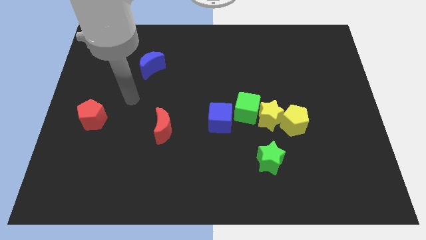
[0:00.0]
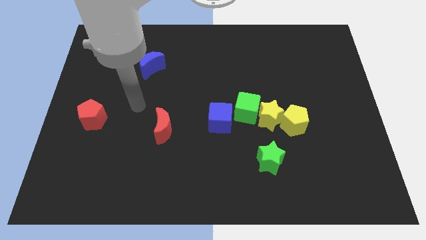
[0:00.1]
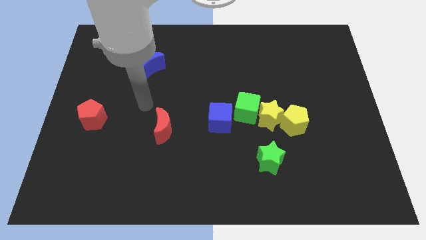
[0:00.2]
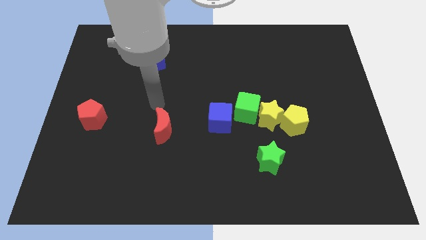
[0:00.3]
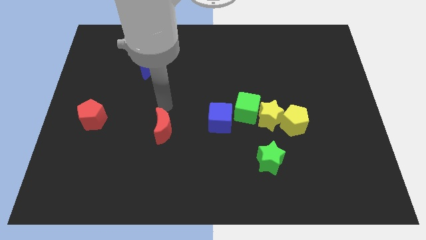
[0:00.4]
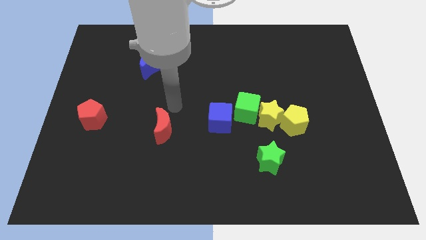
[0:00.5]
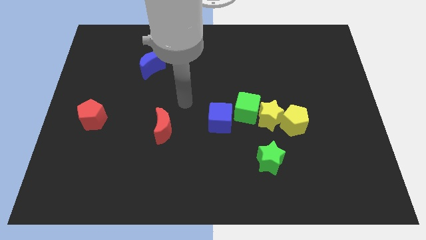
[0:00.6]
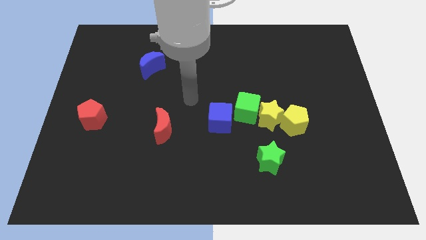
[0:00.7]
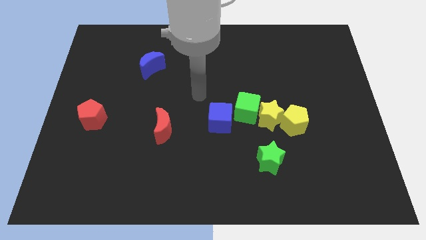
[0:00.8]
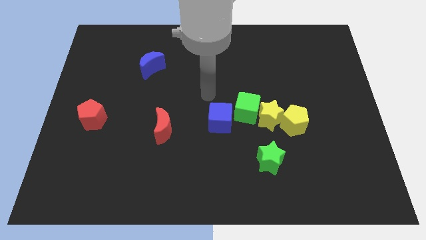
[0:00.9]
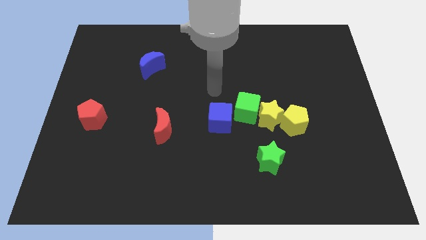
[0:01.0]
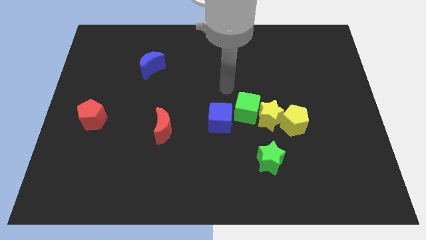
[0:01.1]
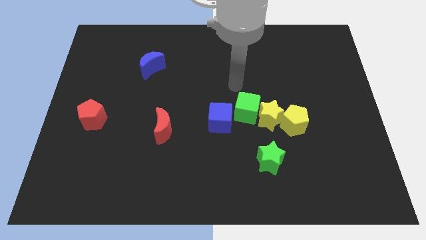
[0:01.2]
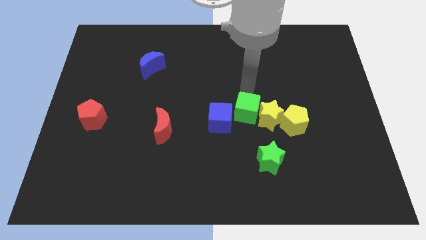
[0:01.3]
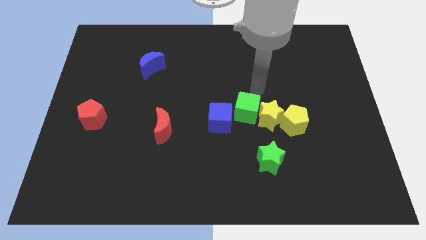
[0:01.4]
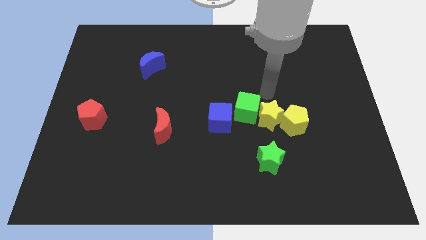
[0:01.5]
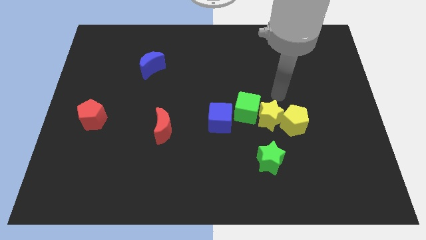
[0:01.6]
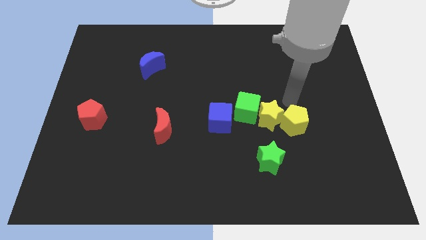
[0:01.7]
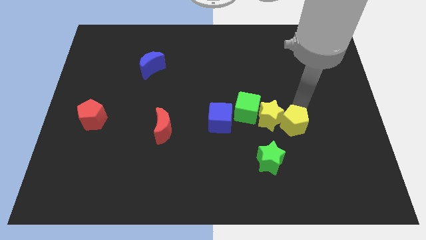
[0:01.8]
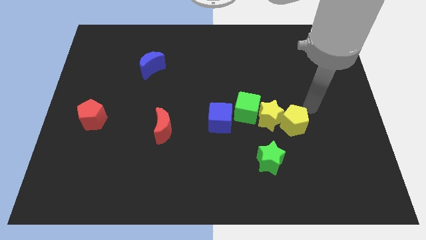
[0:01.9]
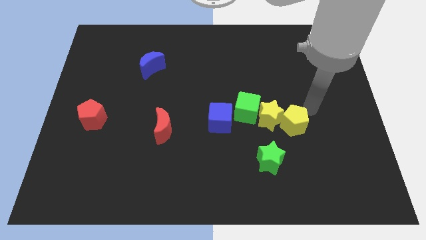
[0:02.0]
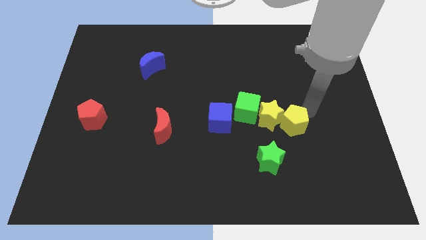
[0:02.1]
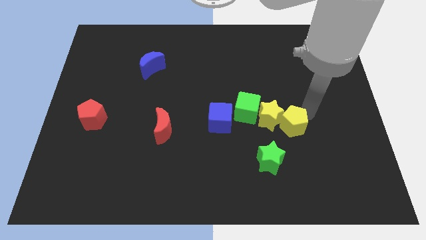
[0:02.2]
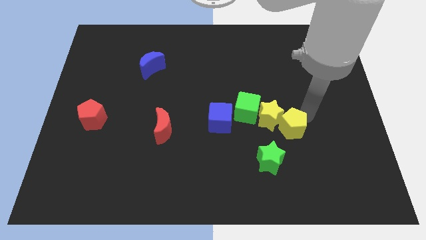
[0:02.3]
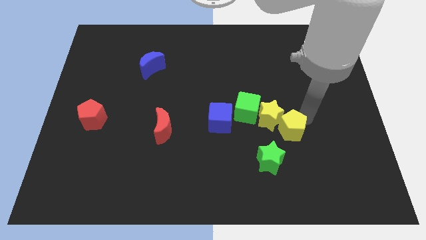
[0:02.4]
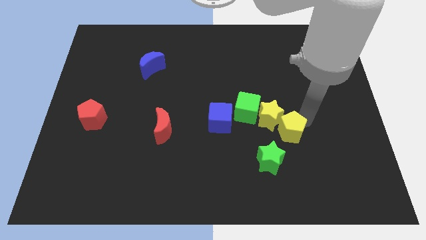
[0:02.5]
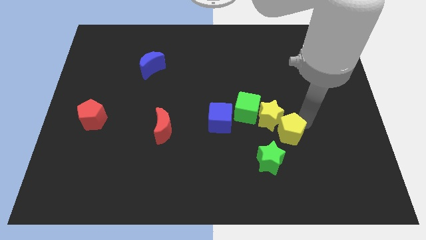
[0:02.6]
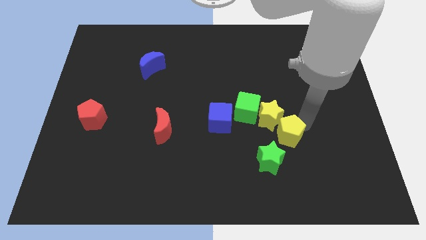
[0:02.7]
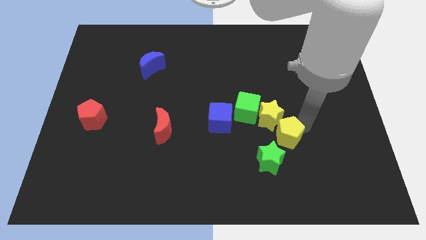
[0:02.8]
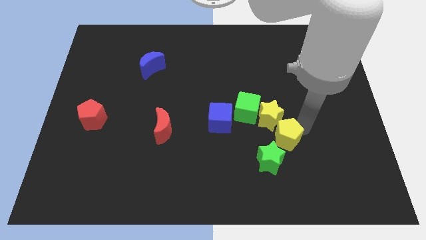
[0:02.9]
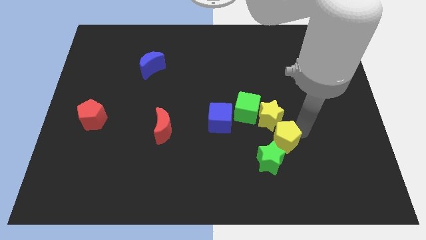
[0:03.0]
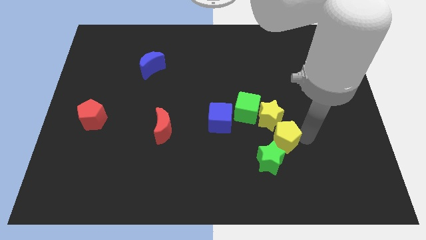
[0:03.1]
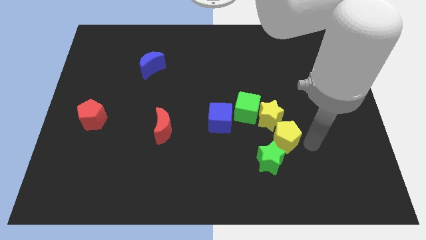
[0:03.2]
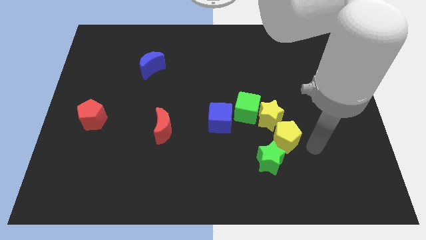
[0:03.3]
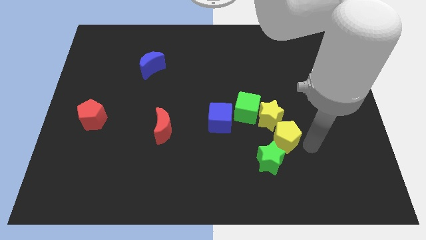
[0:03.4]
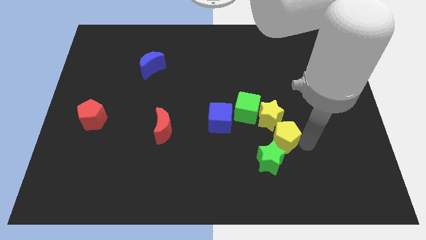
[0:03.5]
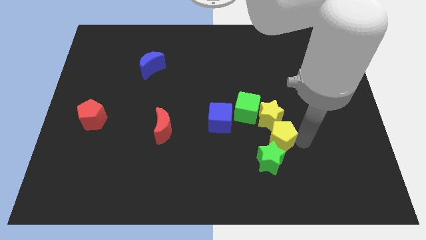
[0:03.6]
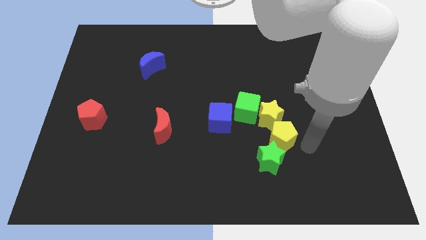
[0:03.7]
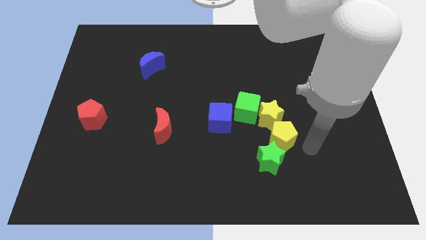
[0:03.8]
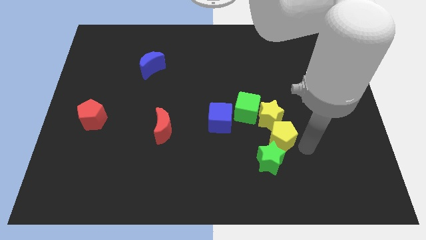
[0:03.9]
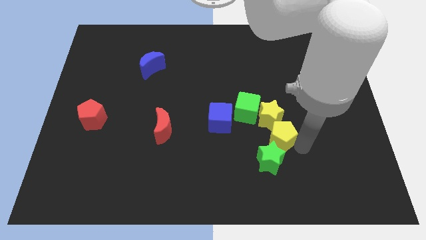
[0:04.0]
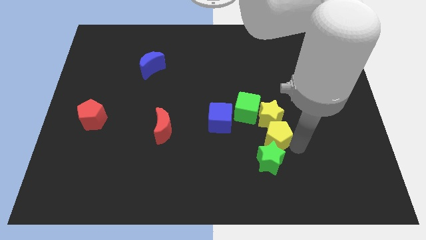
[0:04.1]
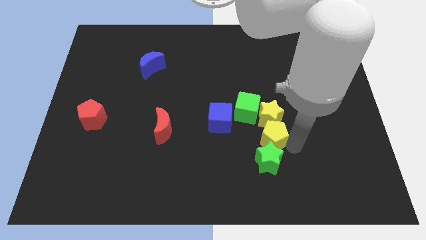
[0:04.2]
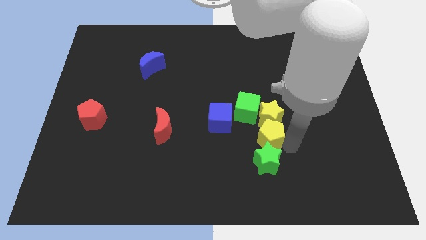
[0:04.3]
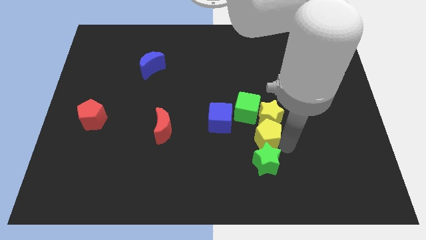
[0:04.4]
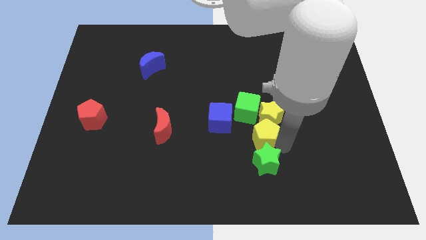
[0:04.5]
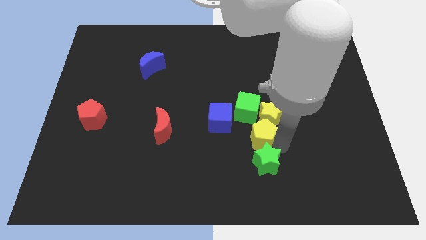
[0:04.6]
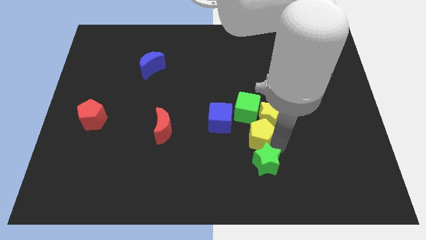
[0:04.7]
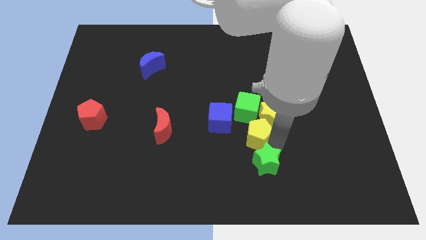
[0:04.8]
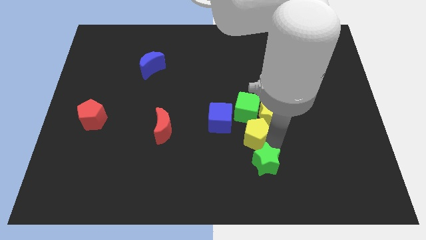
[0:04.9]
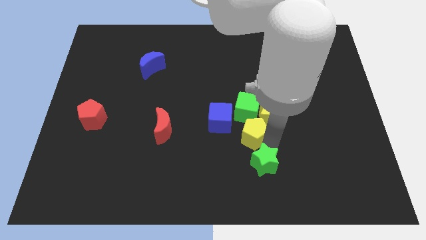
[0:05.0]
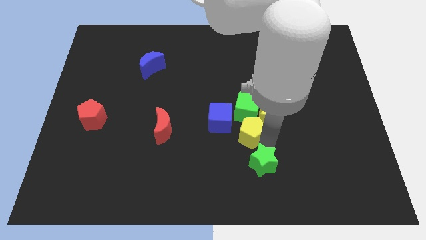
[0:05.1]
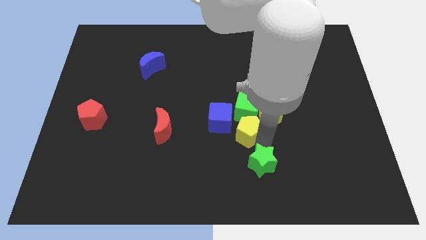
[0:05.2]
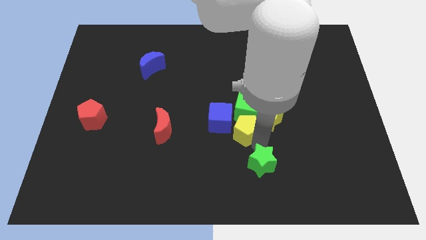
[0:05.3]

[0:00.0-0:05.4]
push the yellow pentagon next to the green cube

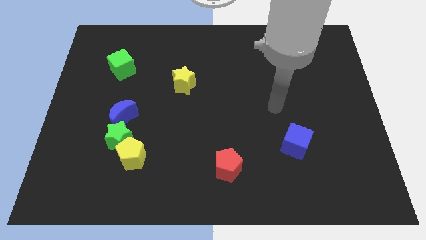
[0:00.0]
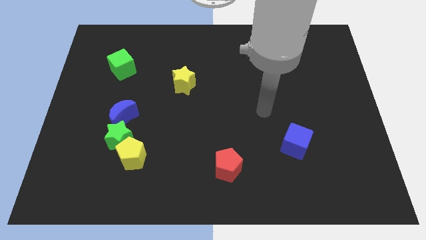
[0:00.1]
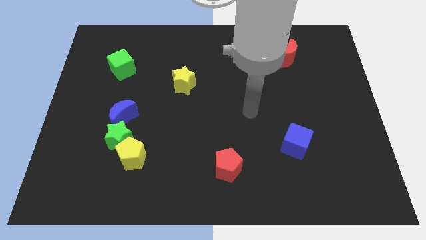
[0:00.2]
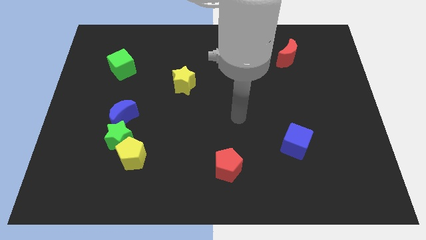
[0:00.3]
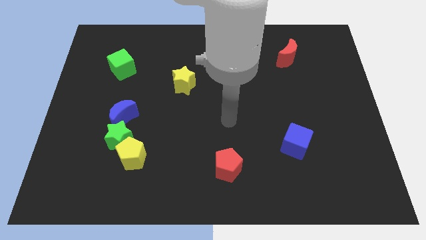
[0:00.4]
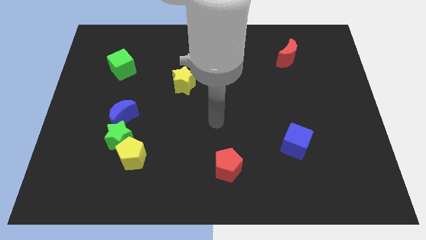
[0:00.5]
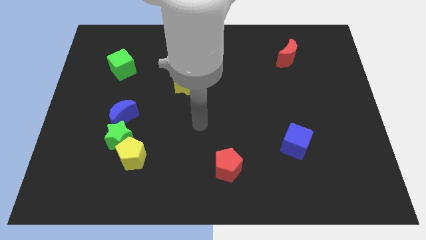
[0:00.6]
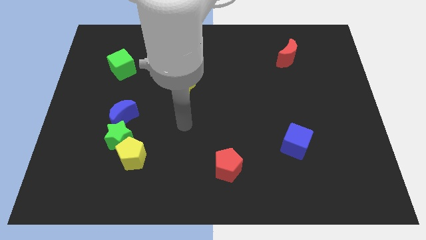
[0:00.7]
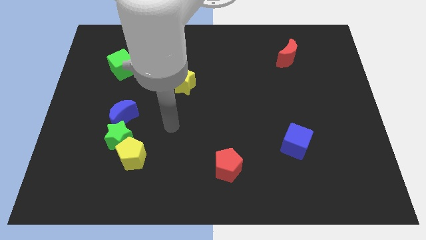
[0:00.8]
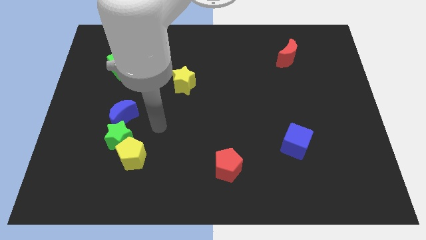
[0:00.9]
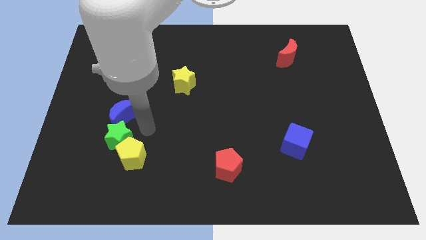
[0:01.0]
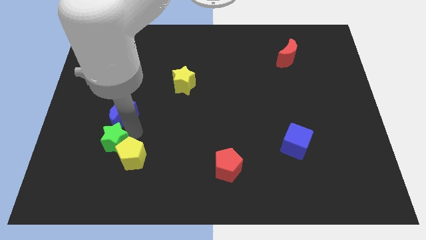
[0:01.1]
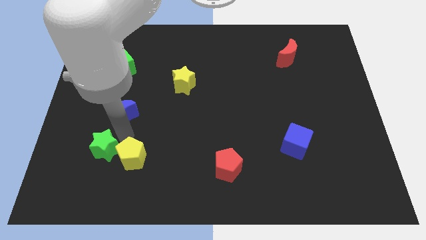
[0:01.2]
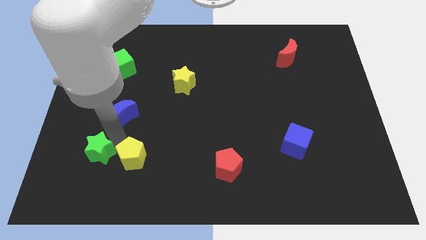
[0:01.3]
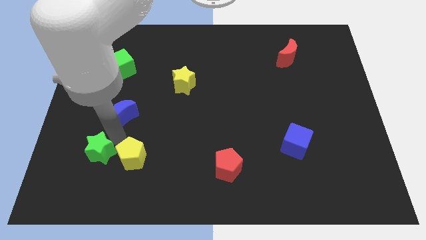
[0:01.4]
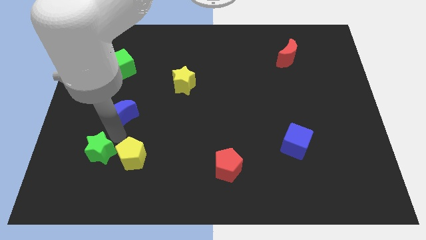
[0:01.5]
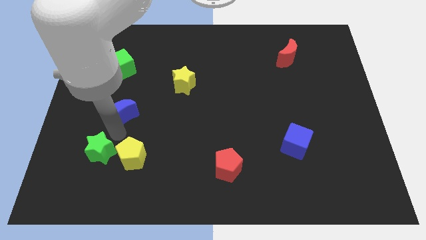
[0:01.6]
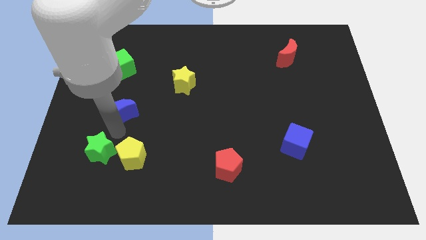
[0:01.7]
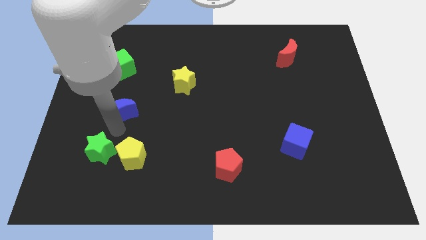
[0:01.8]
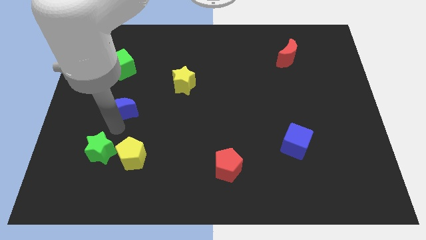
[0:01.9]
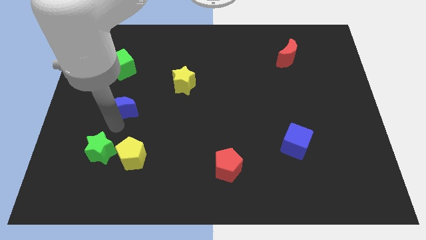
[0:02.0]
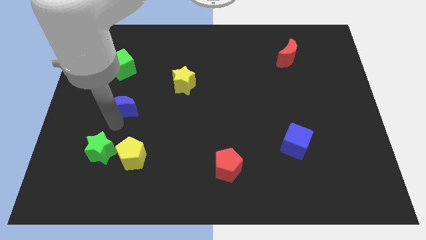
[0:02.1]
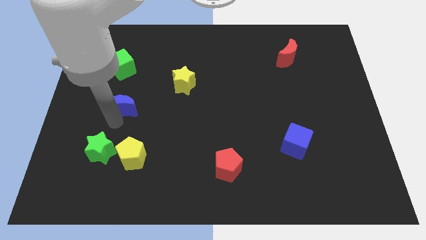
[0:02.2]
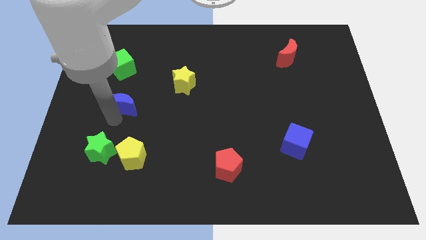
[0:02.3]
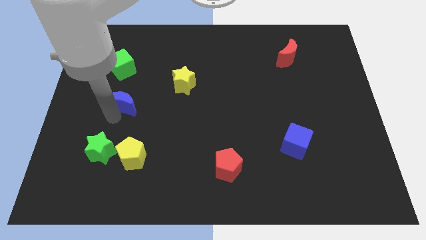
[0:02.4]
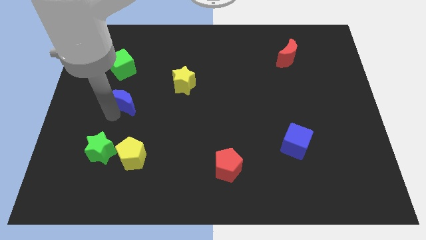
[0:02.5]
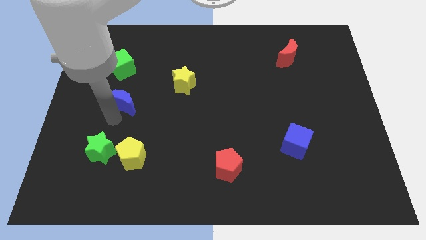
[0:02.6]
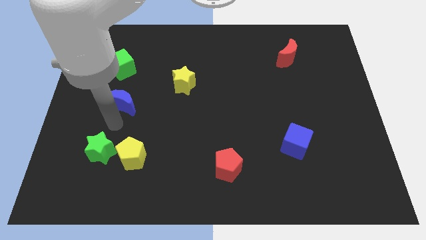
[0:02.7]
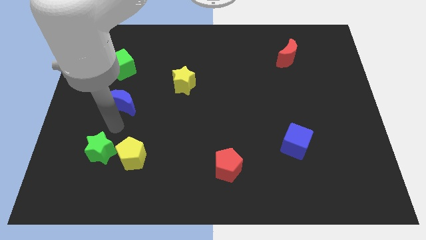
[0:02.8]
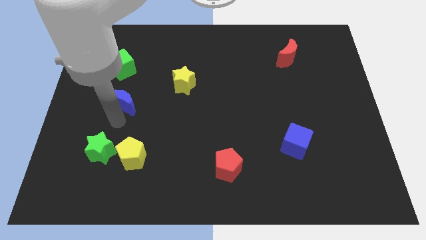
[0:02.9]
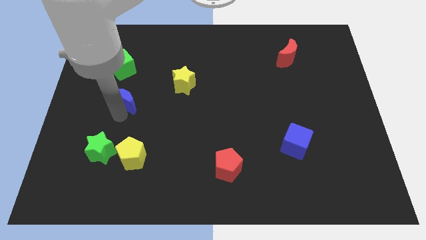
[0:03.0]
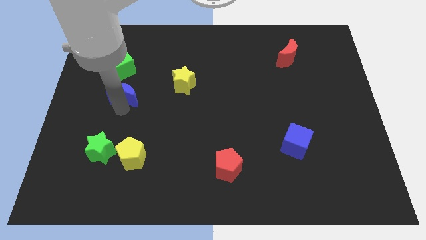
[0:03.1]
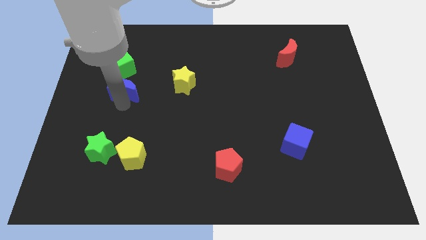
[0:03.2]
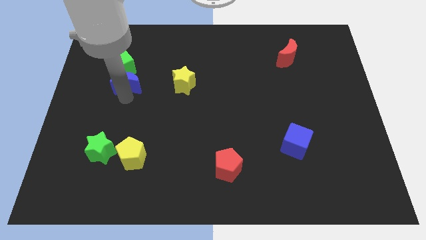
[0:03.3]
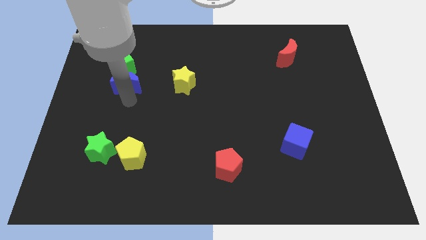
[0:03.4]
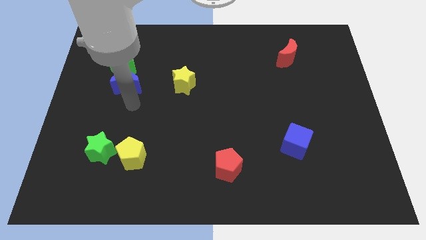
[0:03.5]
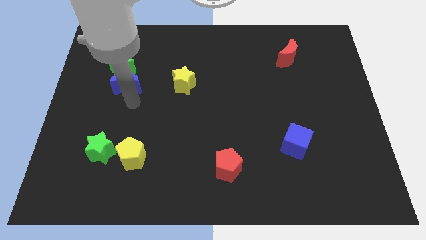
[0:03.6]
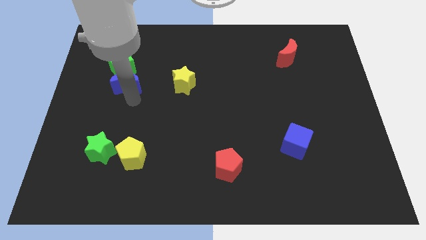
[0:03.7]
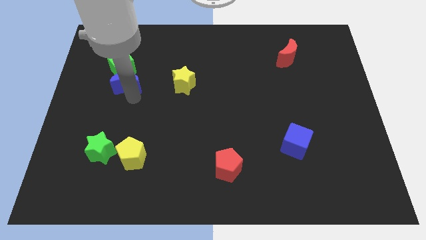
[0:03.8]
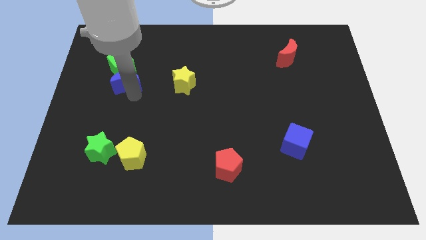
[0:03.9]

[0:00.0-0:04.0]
put the blue moon next to the green cube
